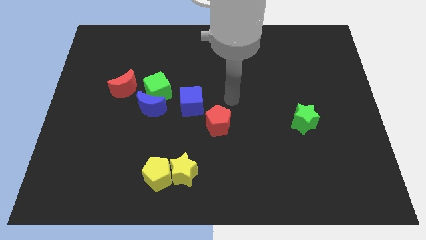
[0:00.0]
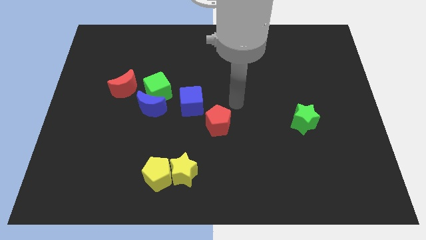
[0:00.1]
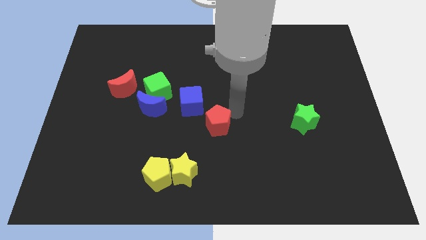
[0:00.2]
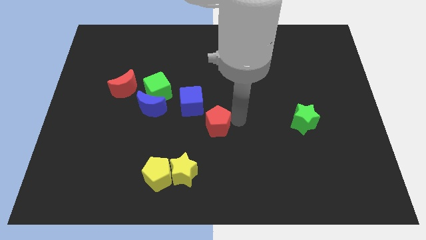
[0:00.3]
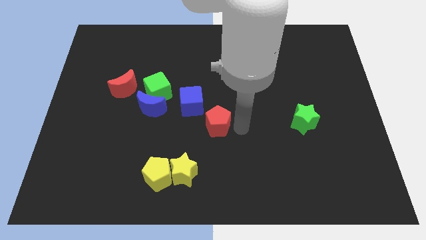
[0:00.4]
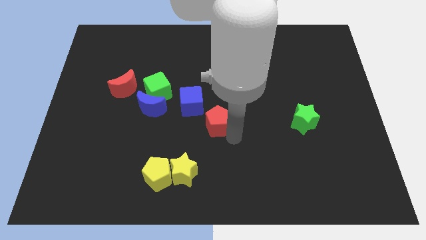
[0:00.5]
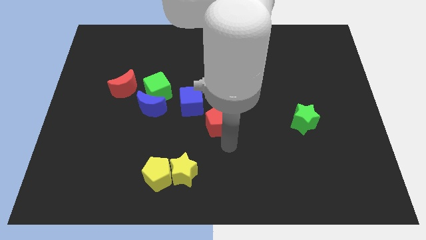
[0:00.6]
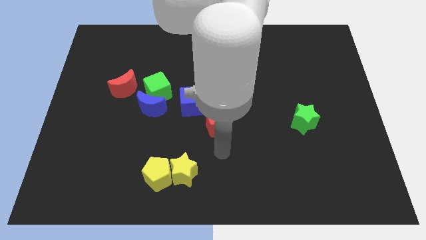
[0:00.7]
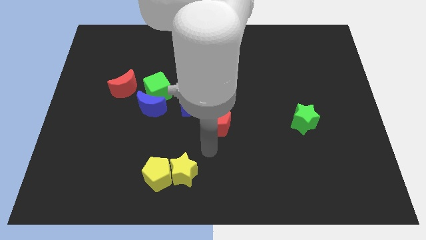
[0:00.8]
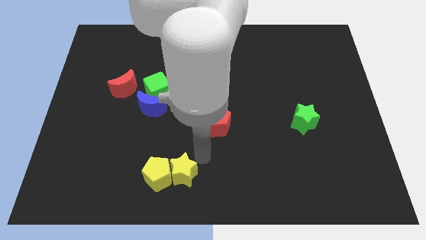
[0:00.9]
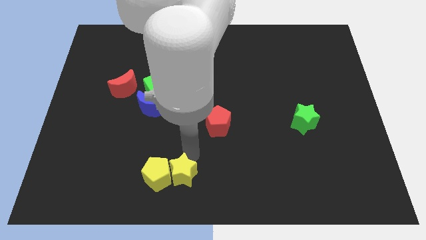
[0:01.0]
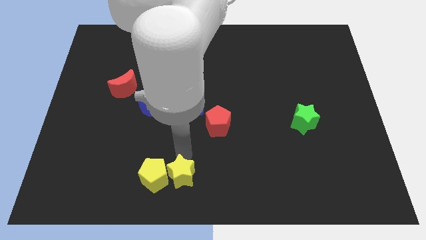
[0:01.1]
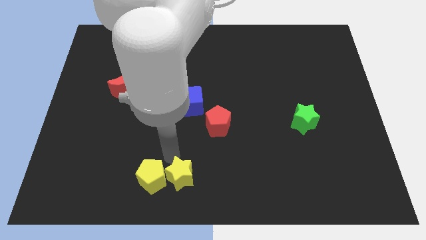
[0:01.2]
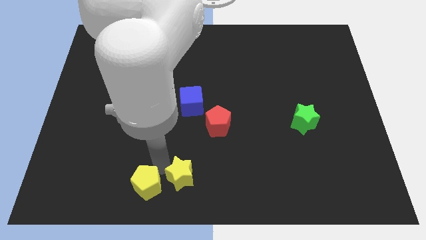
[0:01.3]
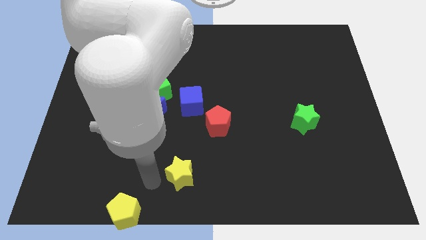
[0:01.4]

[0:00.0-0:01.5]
move the yellow star away from the yellow pentagon

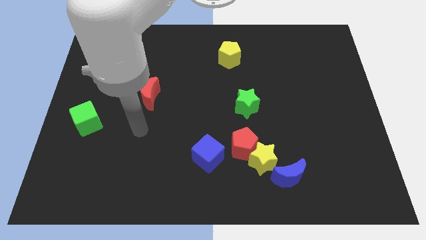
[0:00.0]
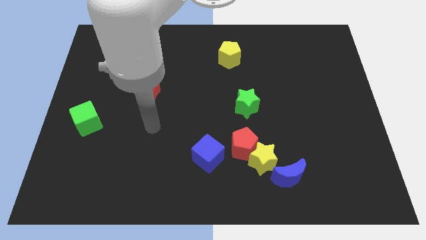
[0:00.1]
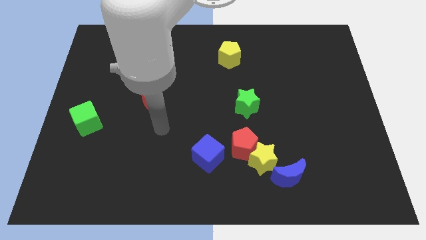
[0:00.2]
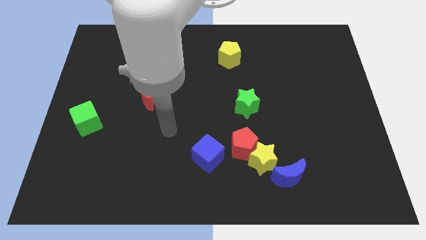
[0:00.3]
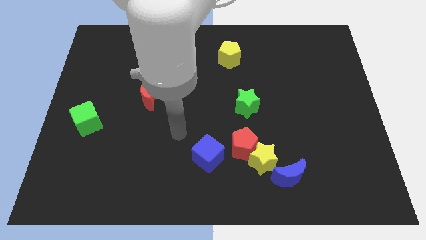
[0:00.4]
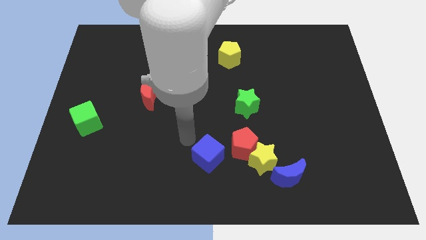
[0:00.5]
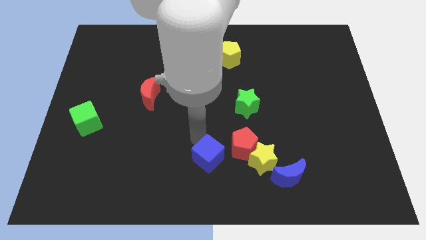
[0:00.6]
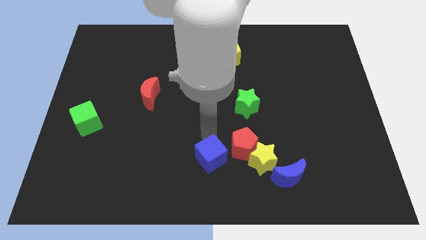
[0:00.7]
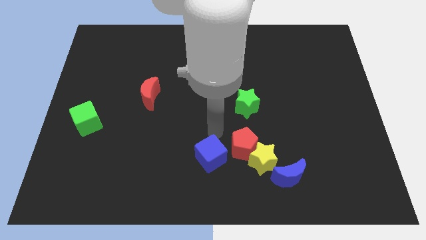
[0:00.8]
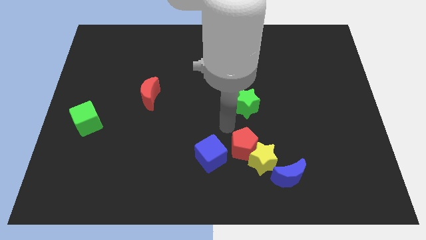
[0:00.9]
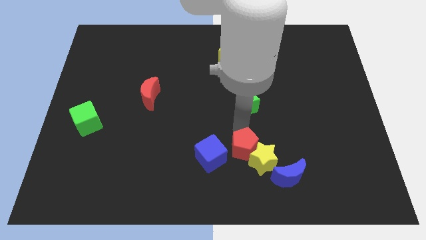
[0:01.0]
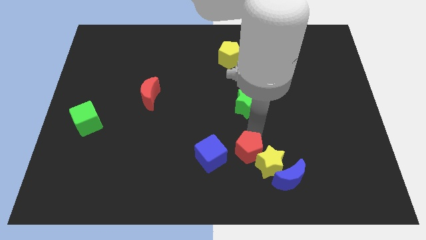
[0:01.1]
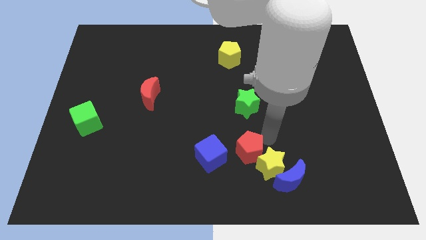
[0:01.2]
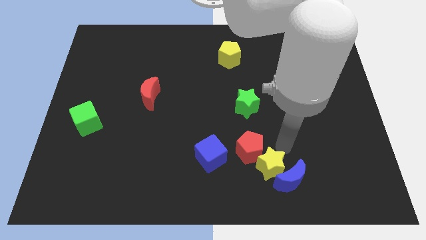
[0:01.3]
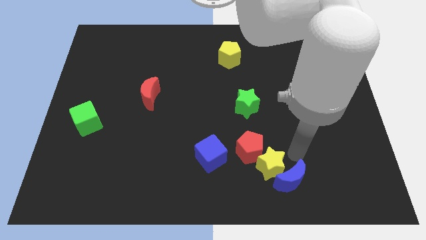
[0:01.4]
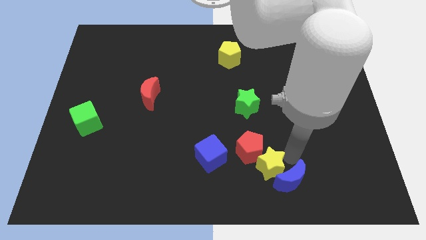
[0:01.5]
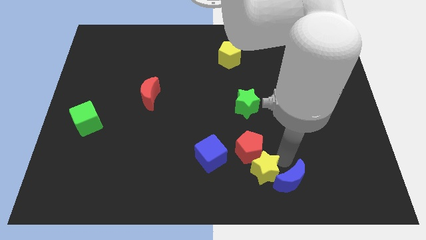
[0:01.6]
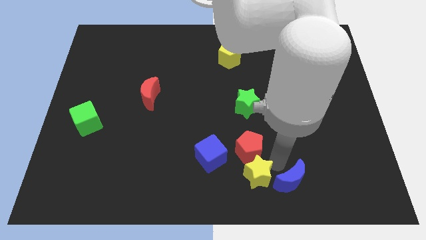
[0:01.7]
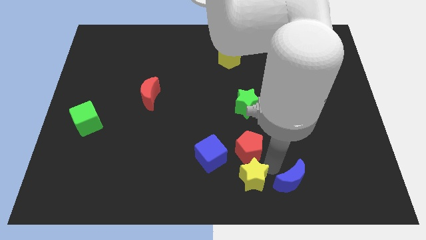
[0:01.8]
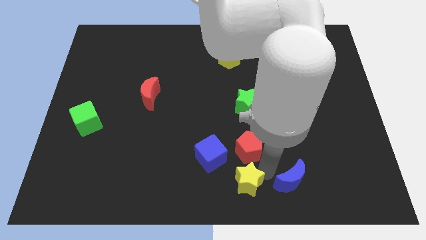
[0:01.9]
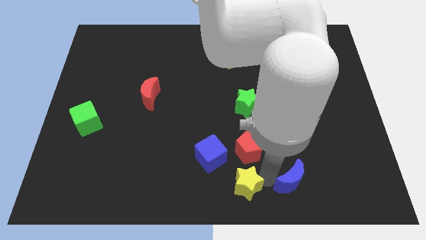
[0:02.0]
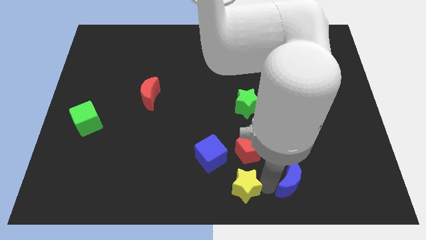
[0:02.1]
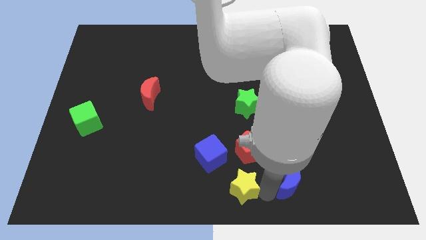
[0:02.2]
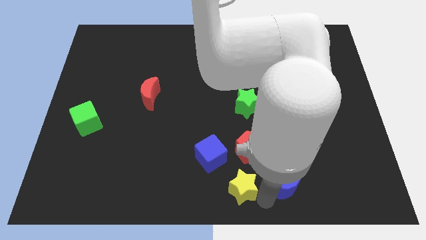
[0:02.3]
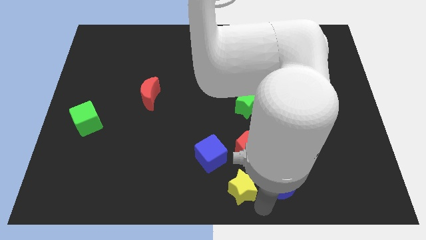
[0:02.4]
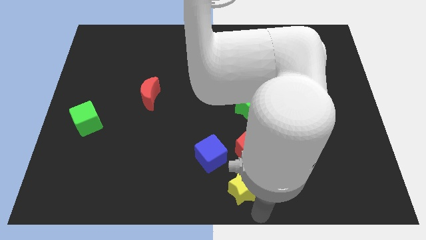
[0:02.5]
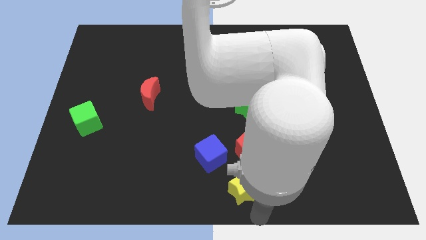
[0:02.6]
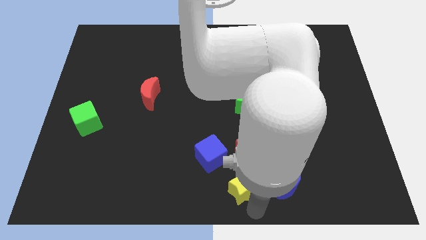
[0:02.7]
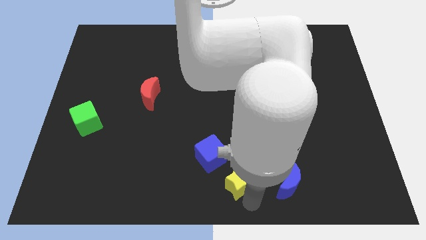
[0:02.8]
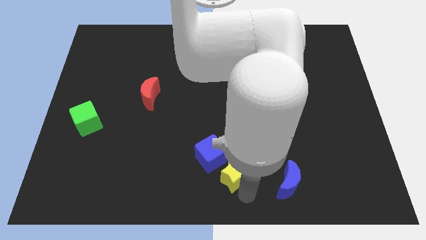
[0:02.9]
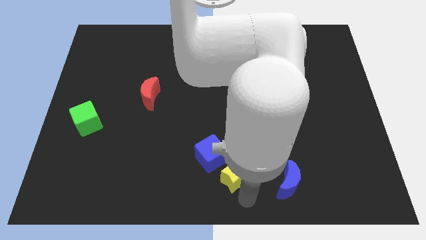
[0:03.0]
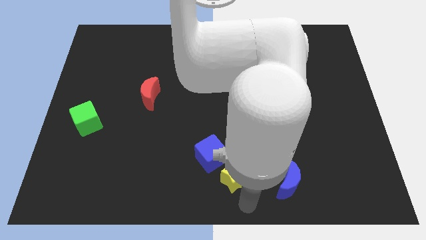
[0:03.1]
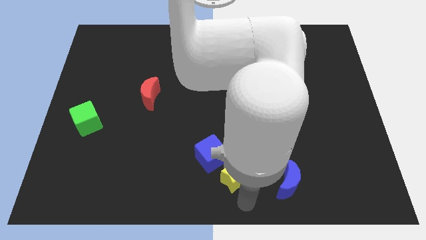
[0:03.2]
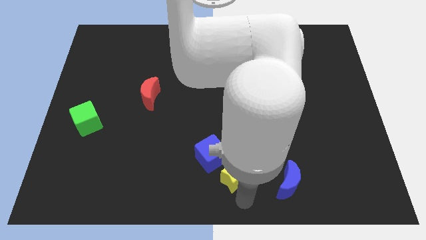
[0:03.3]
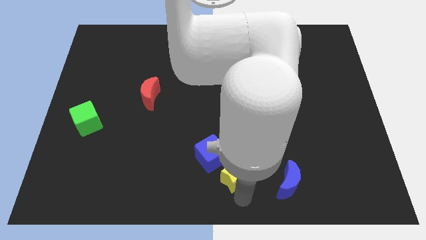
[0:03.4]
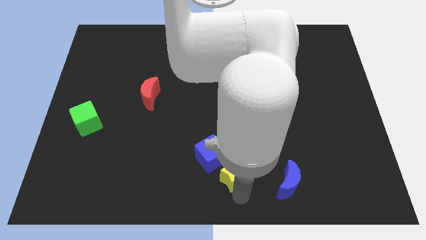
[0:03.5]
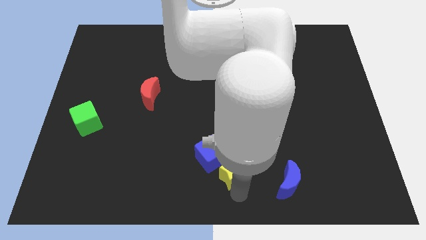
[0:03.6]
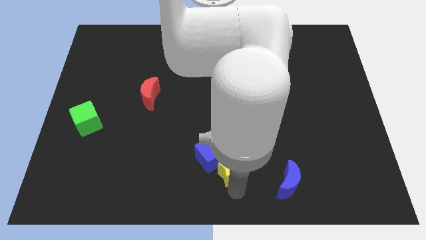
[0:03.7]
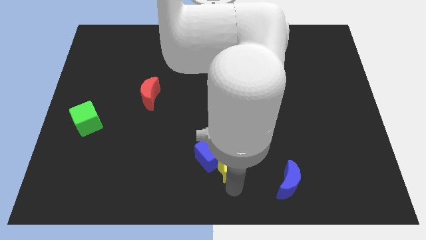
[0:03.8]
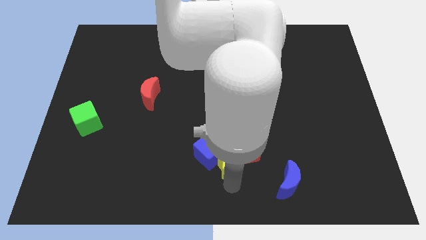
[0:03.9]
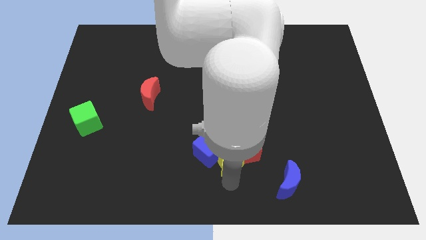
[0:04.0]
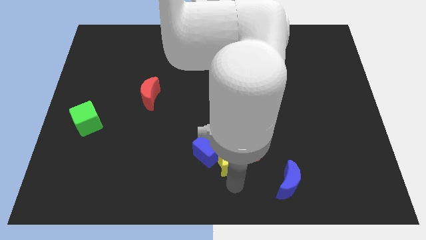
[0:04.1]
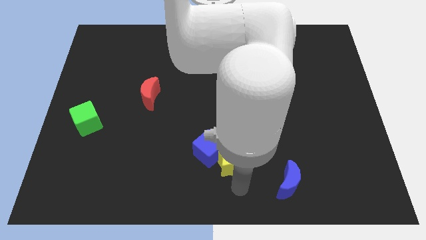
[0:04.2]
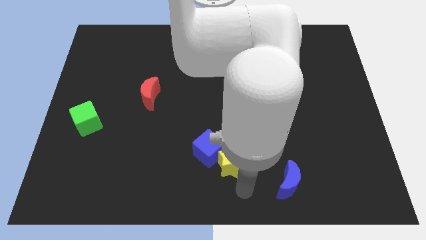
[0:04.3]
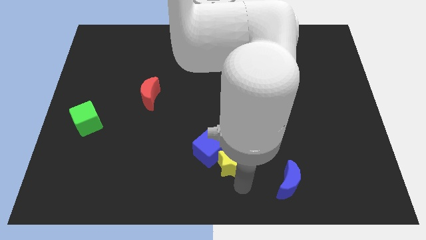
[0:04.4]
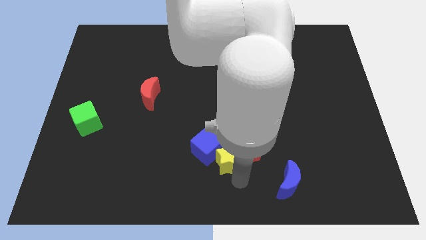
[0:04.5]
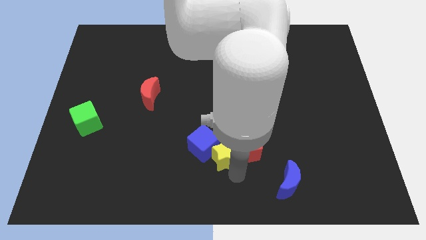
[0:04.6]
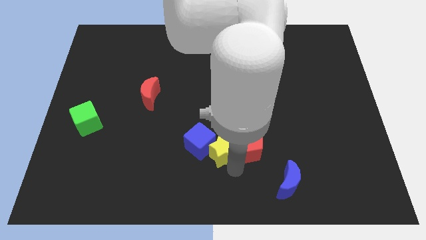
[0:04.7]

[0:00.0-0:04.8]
separate the yellow star from the red pentagon and blue moon

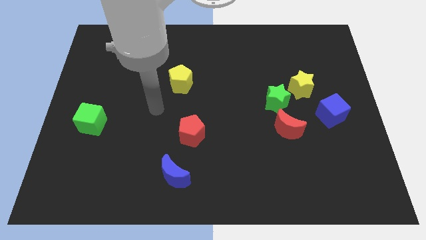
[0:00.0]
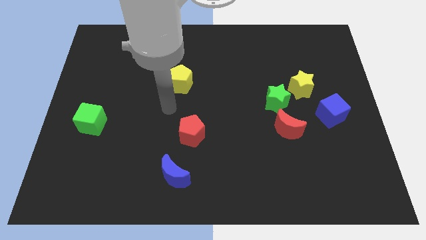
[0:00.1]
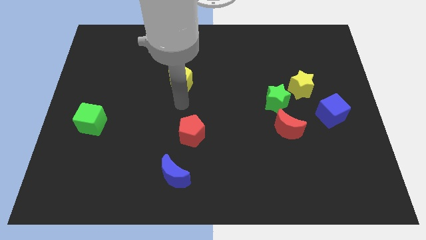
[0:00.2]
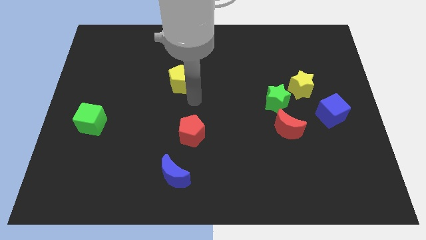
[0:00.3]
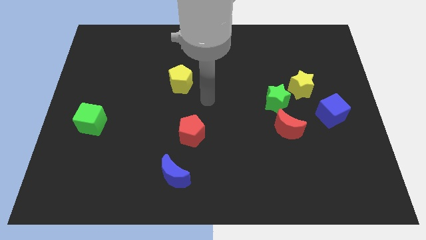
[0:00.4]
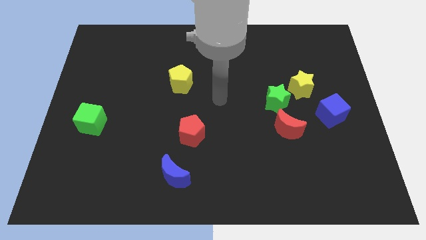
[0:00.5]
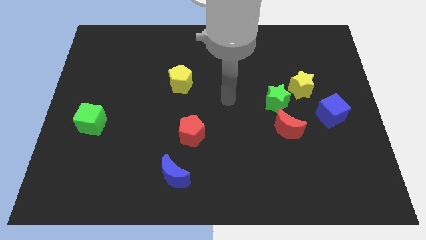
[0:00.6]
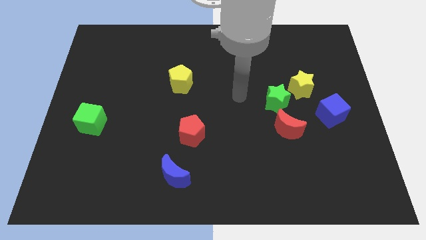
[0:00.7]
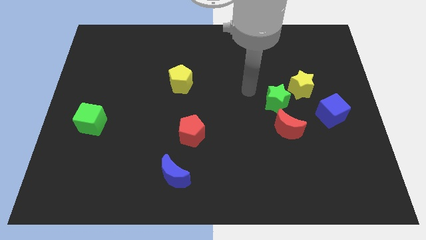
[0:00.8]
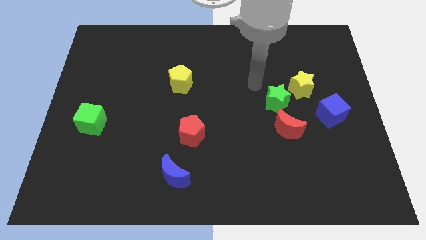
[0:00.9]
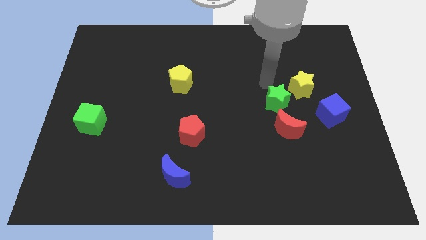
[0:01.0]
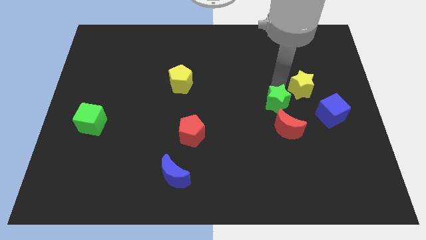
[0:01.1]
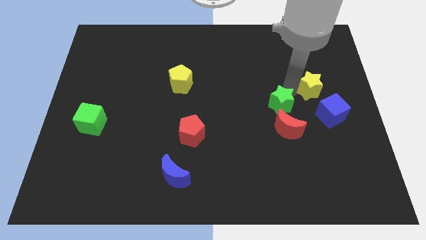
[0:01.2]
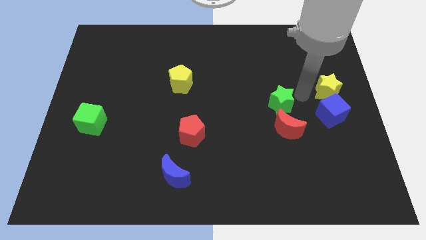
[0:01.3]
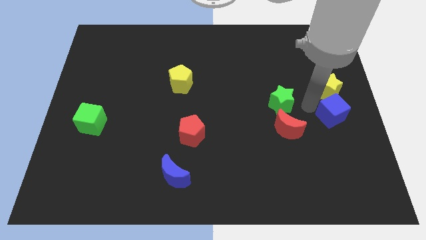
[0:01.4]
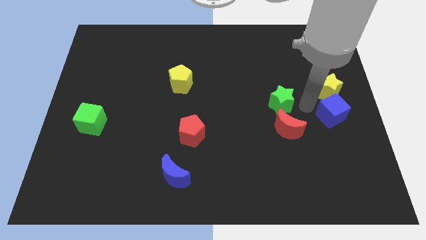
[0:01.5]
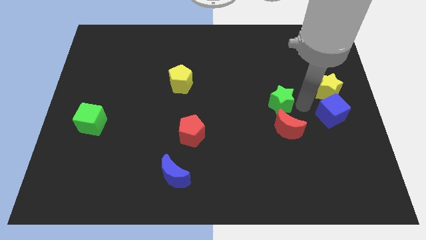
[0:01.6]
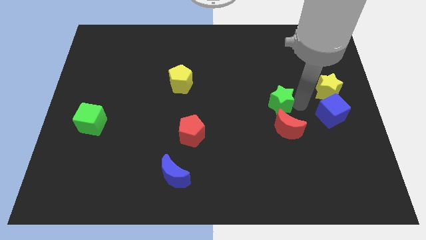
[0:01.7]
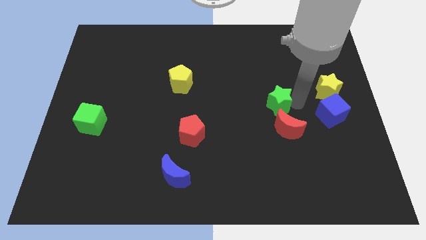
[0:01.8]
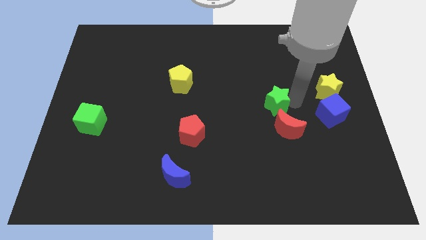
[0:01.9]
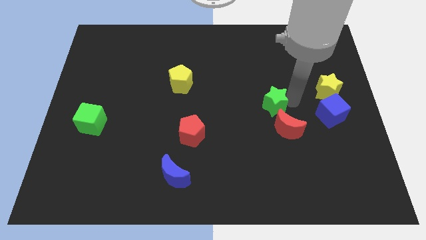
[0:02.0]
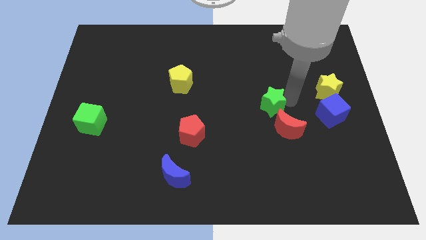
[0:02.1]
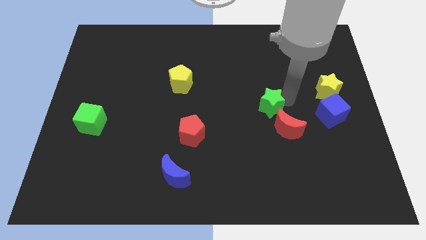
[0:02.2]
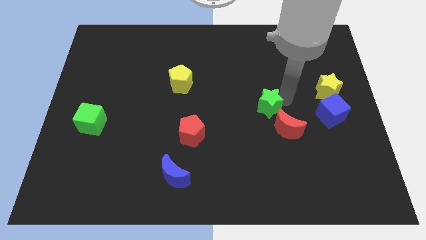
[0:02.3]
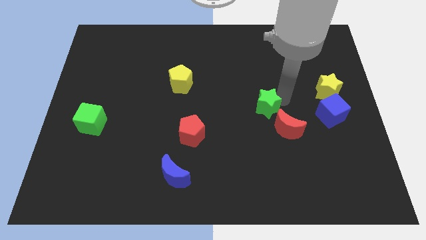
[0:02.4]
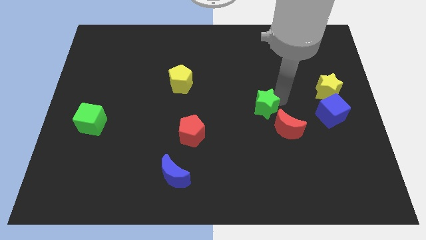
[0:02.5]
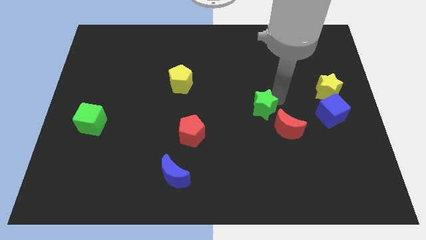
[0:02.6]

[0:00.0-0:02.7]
move the green star away from the yellow star and red moon

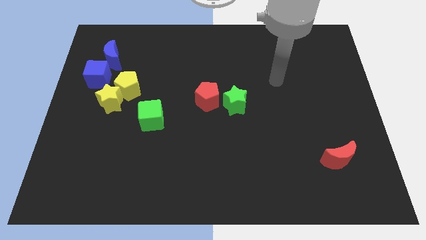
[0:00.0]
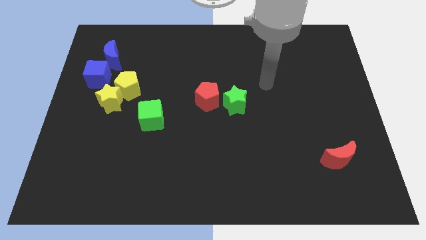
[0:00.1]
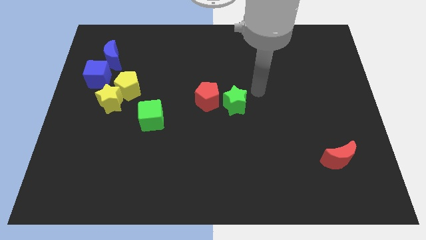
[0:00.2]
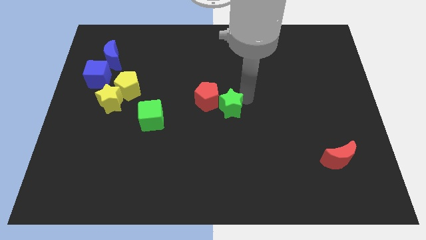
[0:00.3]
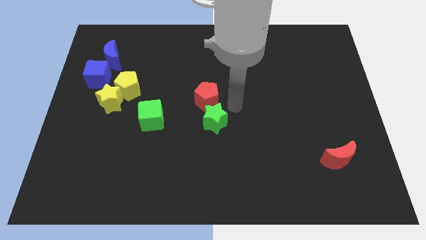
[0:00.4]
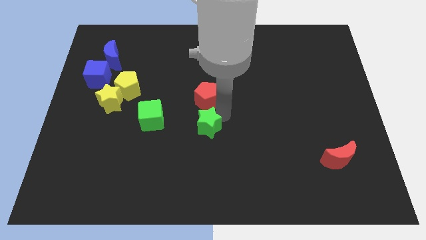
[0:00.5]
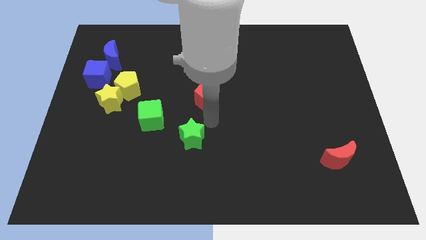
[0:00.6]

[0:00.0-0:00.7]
pull the red pentagon apart from the green star
